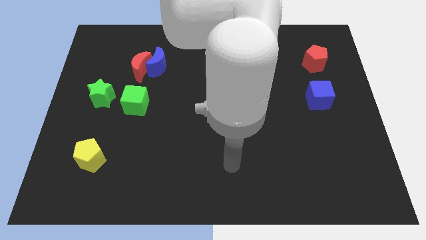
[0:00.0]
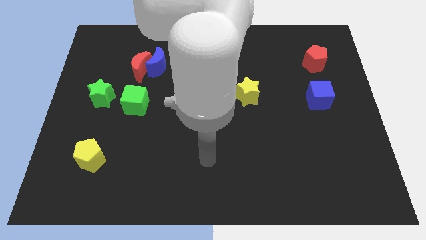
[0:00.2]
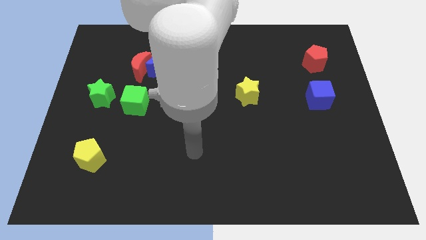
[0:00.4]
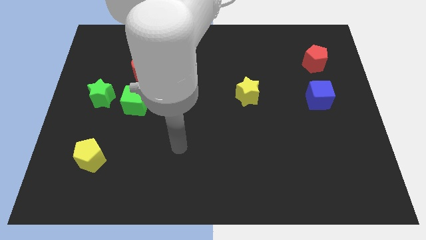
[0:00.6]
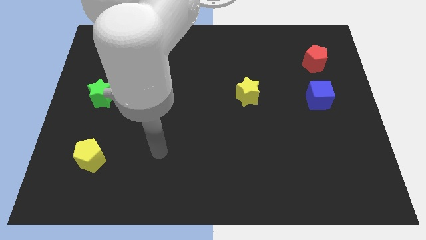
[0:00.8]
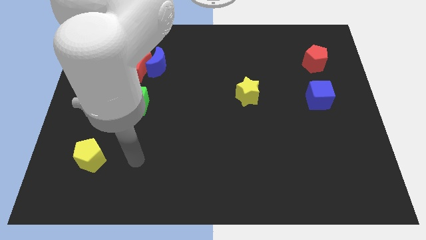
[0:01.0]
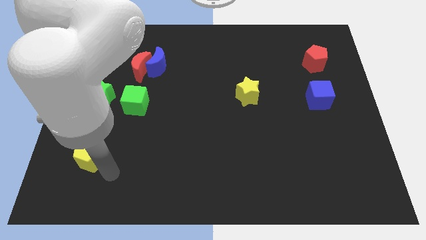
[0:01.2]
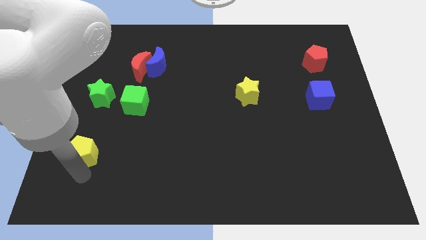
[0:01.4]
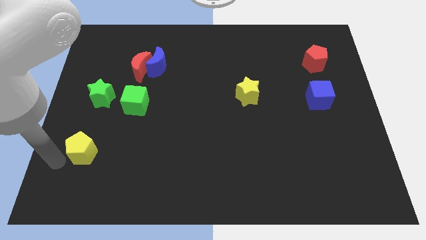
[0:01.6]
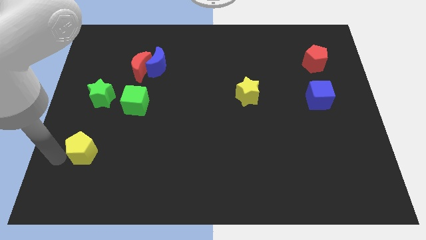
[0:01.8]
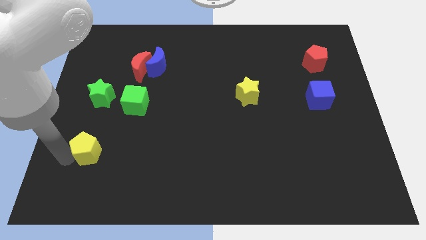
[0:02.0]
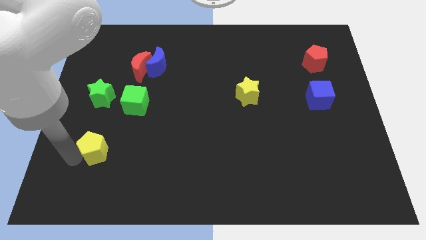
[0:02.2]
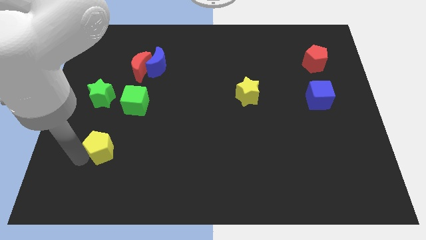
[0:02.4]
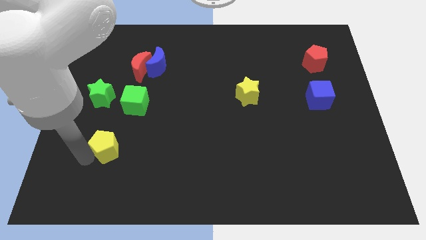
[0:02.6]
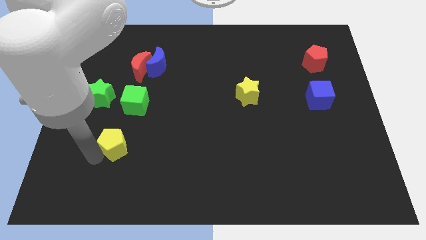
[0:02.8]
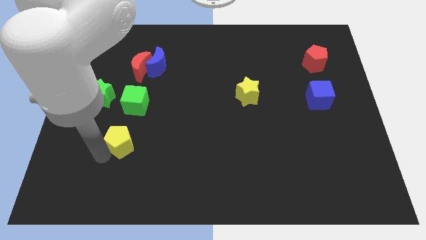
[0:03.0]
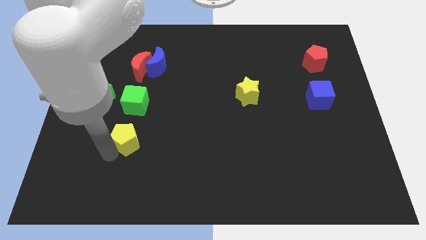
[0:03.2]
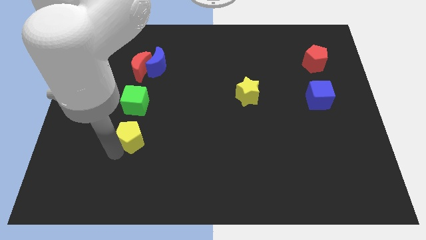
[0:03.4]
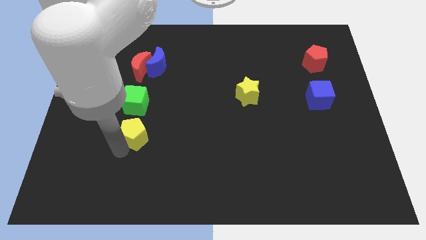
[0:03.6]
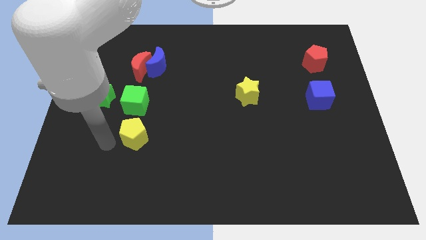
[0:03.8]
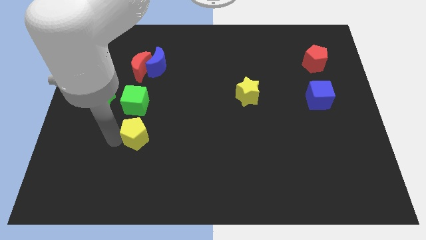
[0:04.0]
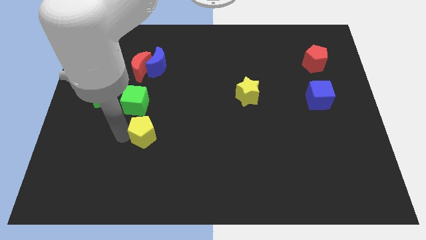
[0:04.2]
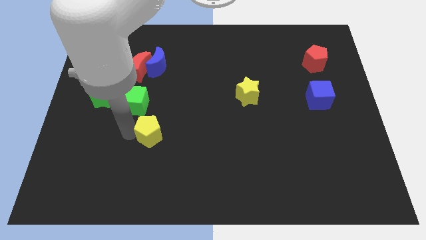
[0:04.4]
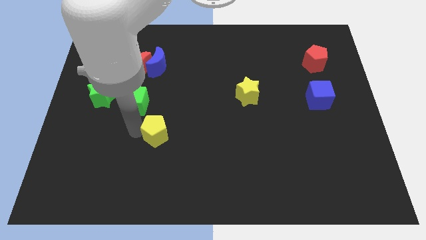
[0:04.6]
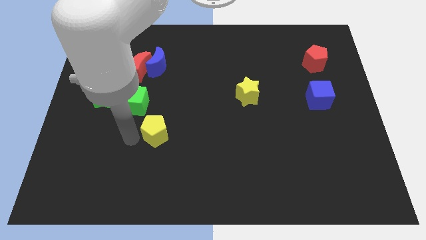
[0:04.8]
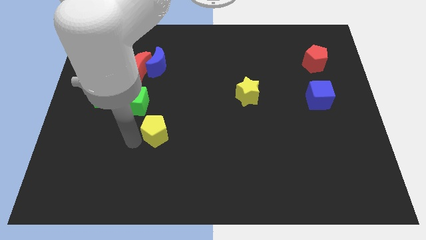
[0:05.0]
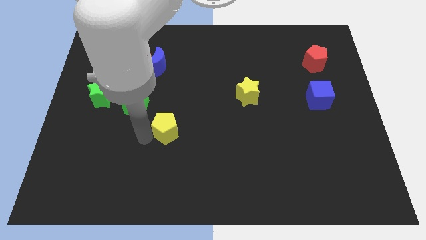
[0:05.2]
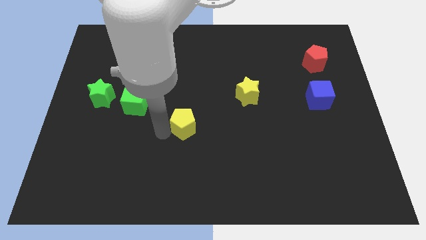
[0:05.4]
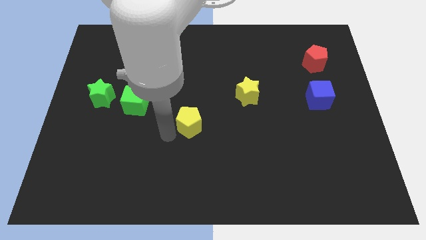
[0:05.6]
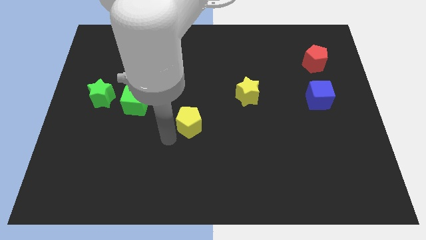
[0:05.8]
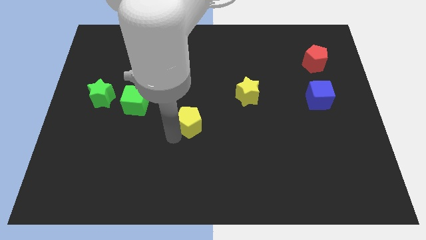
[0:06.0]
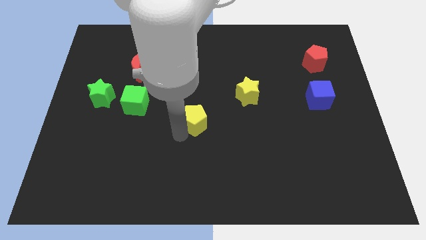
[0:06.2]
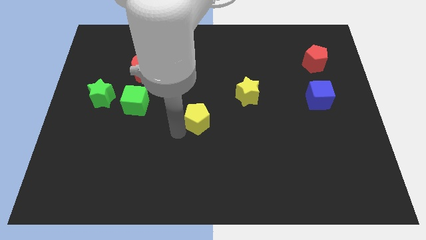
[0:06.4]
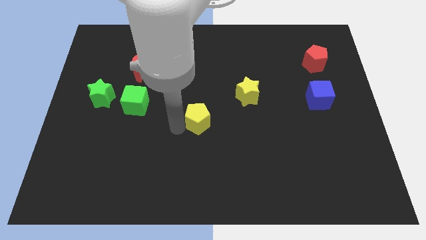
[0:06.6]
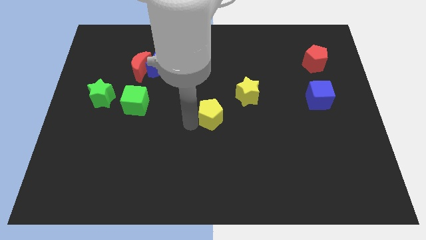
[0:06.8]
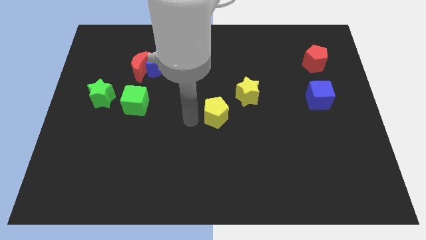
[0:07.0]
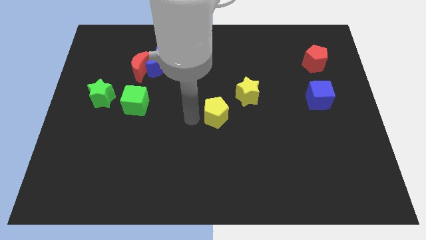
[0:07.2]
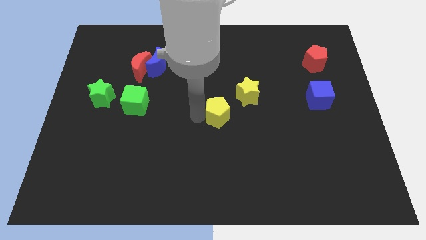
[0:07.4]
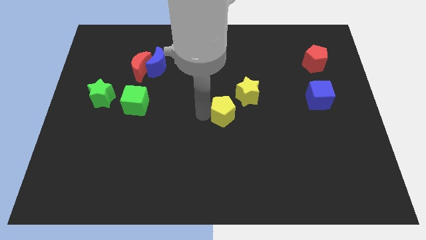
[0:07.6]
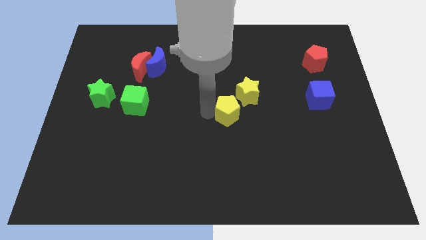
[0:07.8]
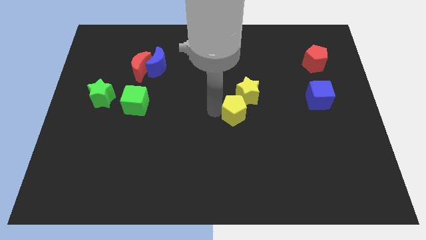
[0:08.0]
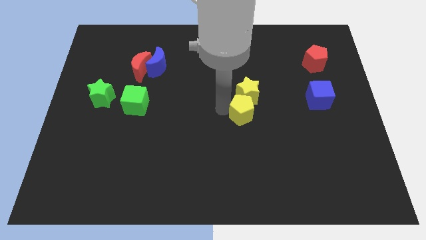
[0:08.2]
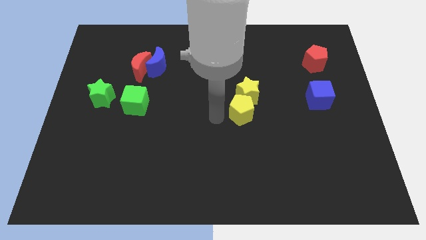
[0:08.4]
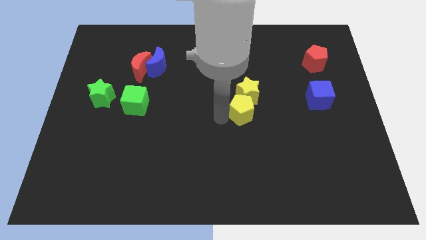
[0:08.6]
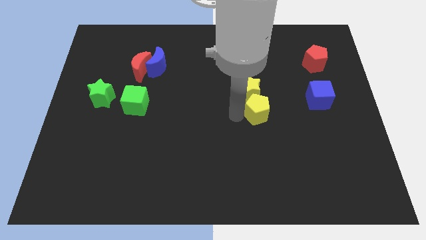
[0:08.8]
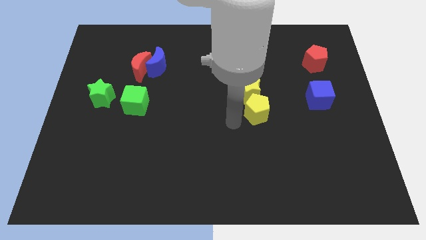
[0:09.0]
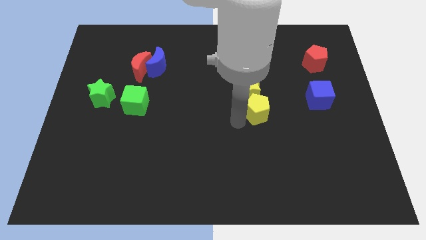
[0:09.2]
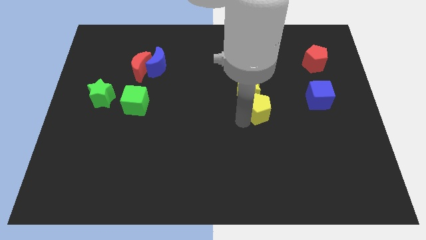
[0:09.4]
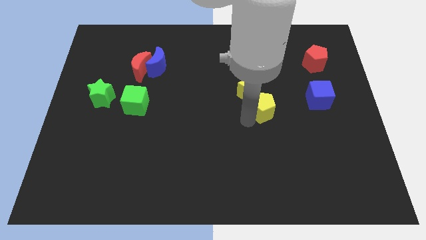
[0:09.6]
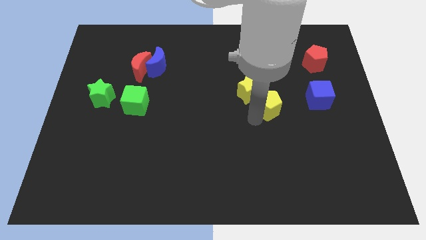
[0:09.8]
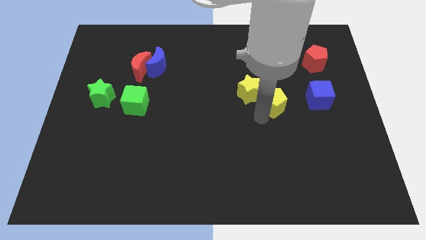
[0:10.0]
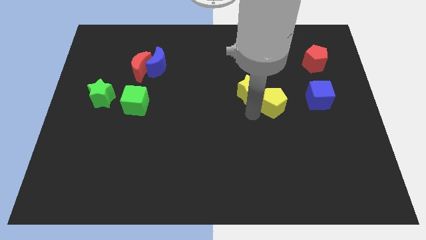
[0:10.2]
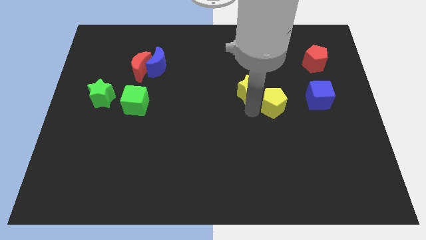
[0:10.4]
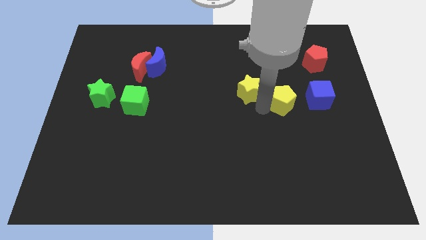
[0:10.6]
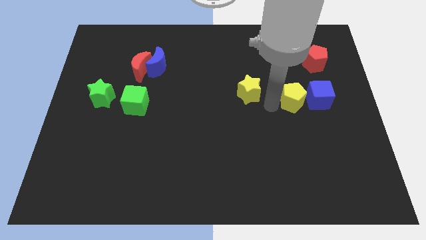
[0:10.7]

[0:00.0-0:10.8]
slide the yellow pentagon next to the blue cube

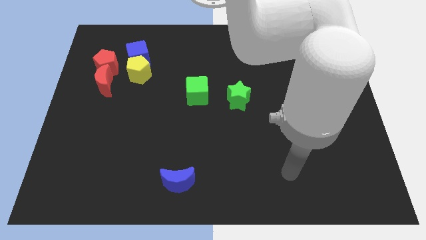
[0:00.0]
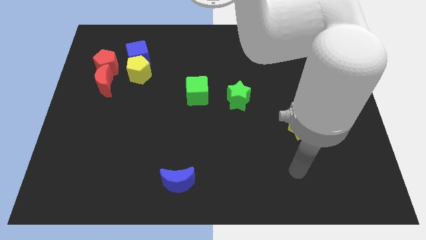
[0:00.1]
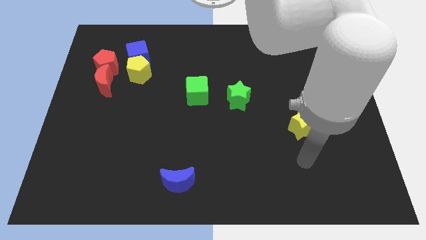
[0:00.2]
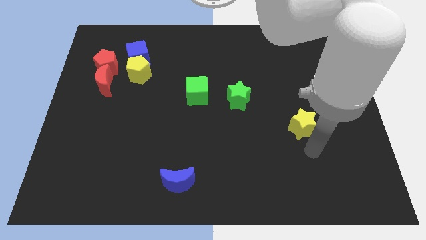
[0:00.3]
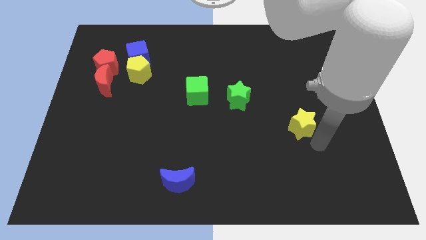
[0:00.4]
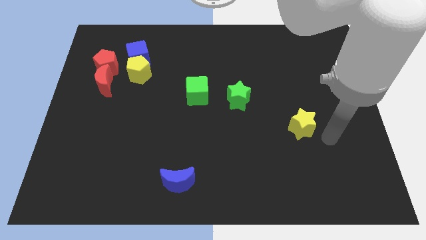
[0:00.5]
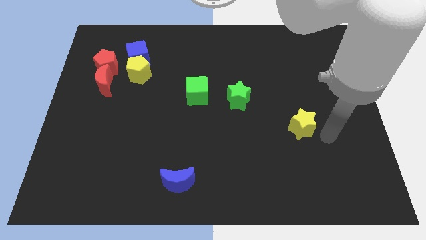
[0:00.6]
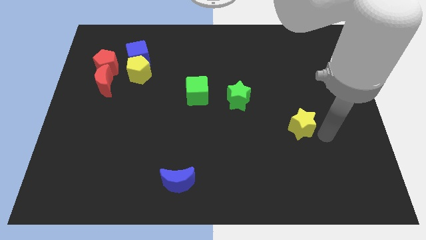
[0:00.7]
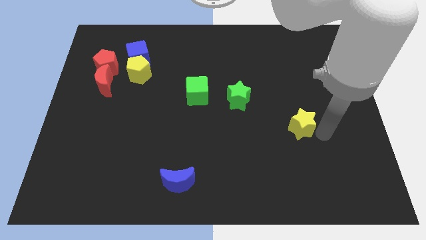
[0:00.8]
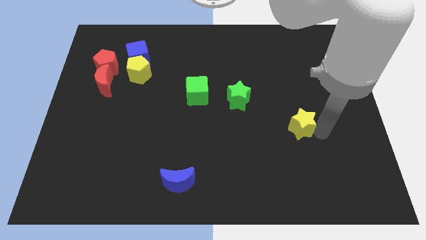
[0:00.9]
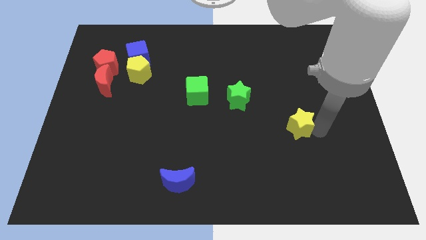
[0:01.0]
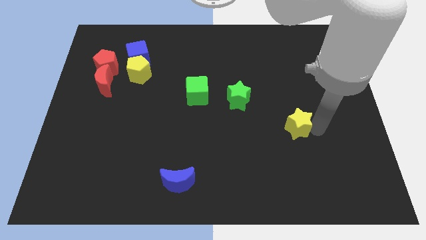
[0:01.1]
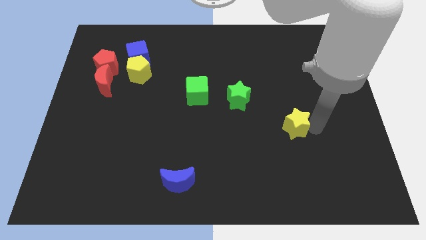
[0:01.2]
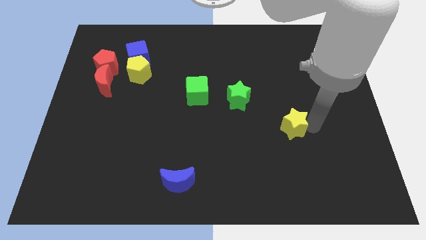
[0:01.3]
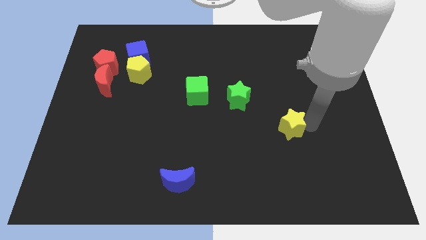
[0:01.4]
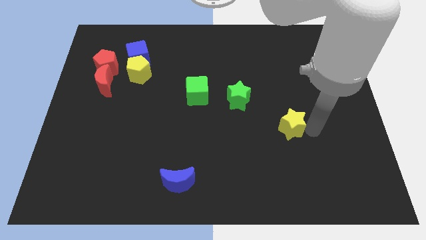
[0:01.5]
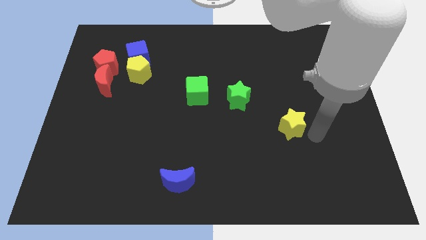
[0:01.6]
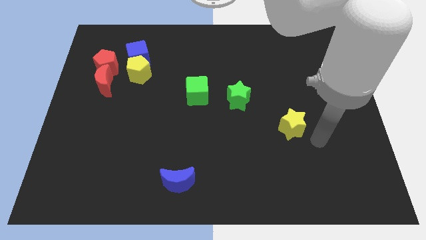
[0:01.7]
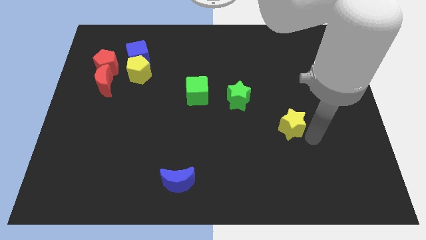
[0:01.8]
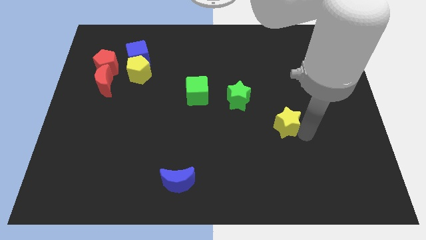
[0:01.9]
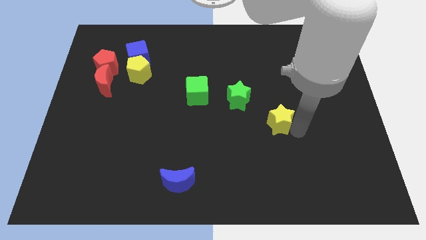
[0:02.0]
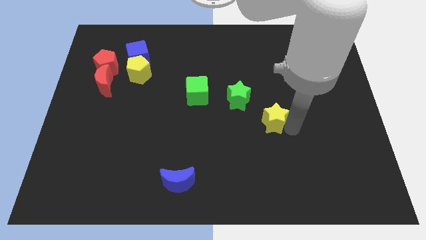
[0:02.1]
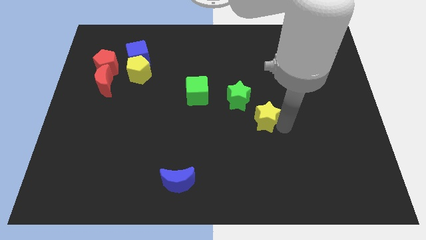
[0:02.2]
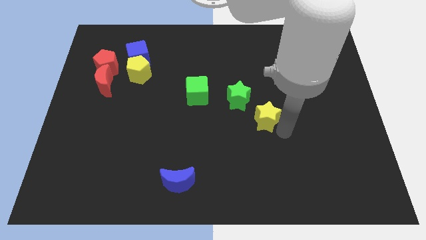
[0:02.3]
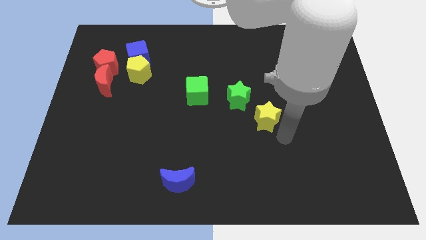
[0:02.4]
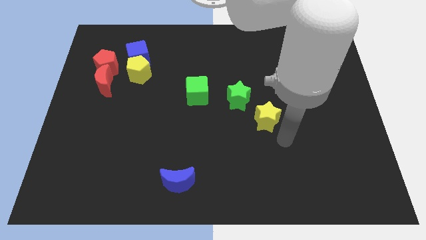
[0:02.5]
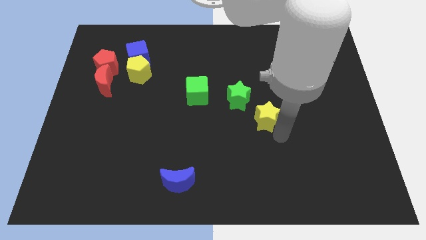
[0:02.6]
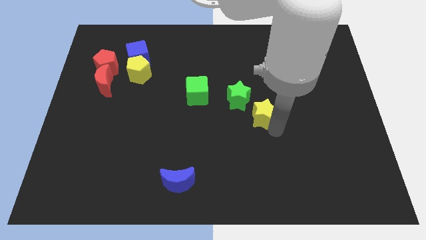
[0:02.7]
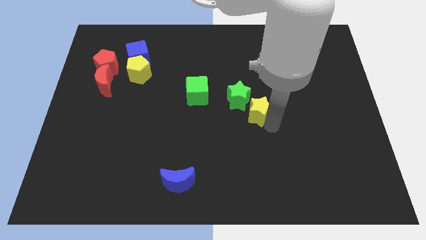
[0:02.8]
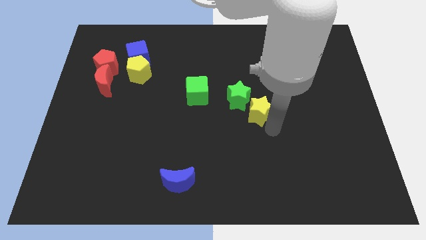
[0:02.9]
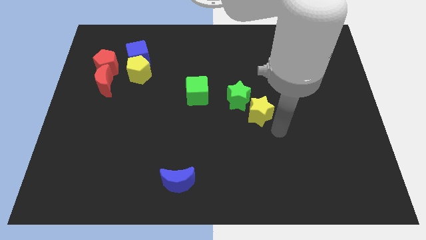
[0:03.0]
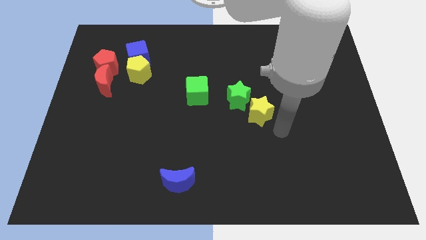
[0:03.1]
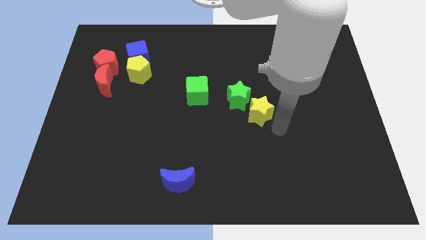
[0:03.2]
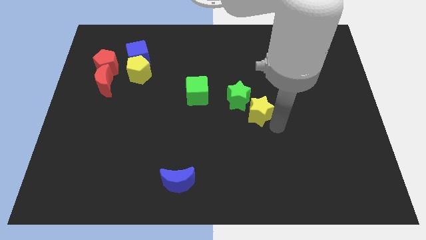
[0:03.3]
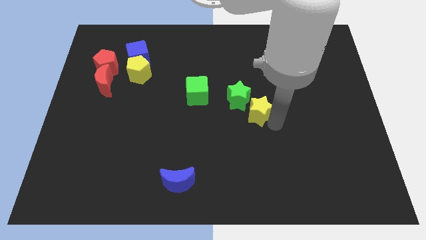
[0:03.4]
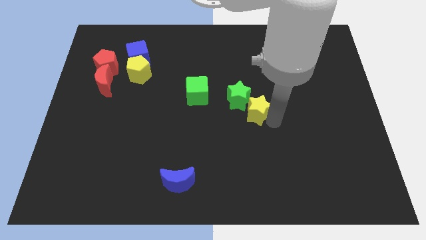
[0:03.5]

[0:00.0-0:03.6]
move the yellow star next to the green star
